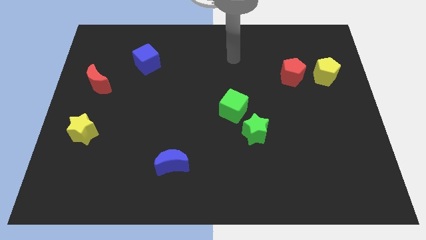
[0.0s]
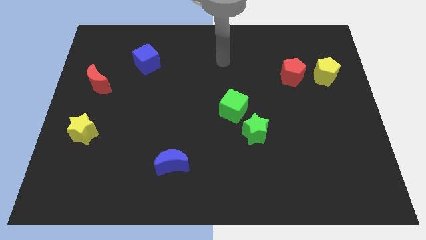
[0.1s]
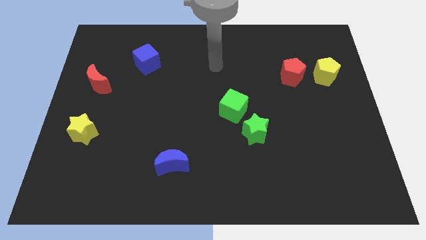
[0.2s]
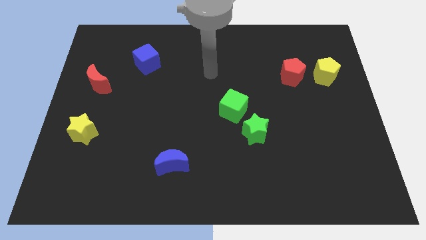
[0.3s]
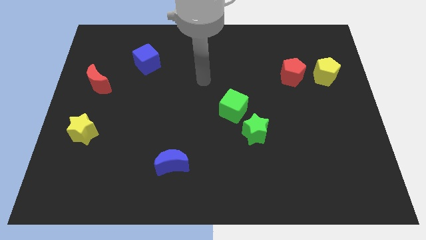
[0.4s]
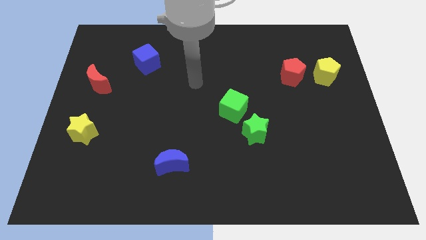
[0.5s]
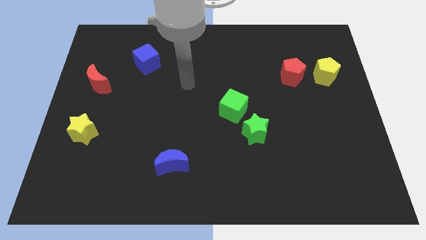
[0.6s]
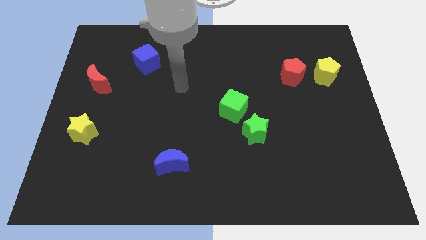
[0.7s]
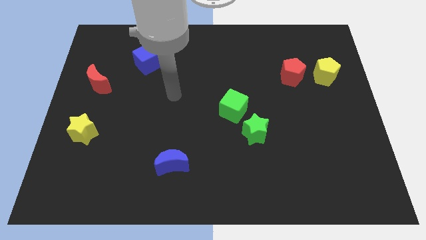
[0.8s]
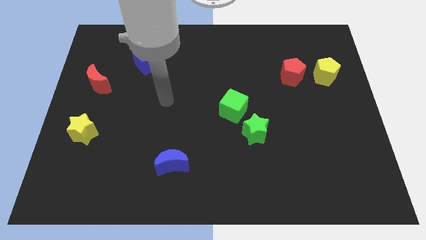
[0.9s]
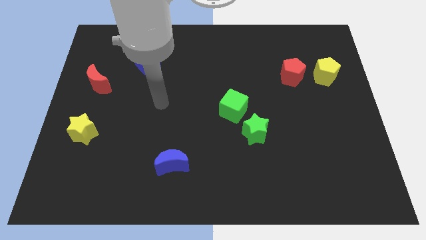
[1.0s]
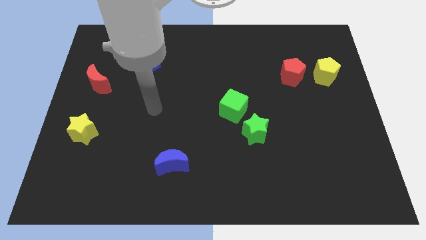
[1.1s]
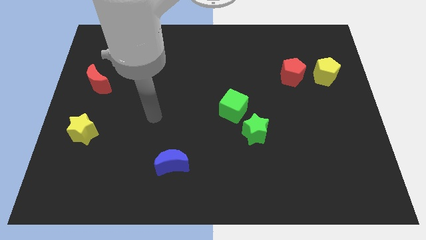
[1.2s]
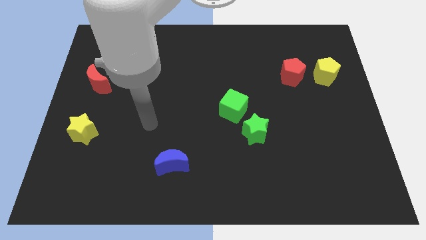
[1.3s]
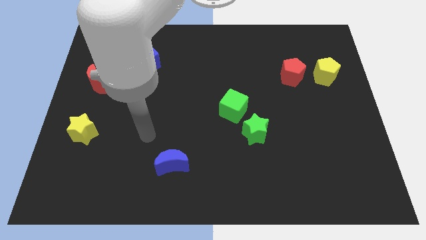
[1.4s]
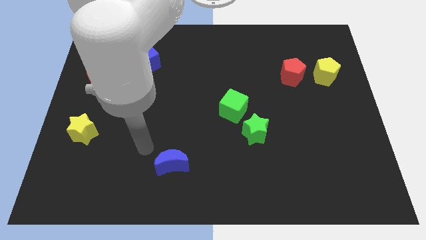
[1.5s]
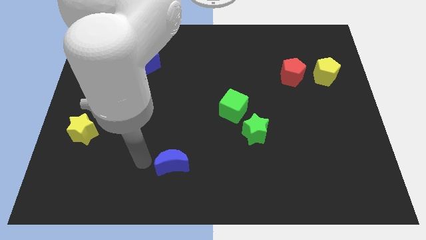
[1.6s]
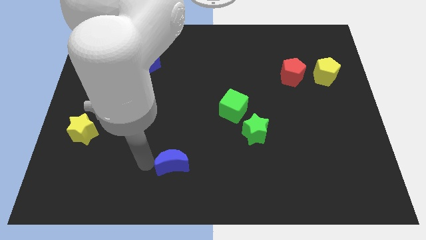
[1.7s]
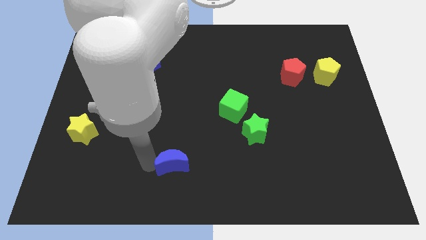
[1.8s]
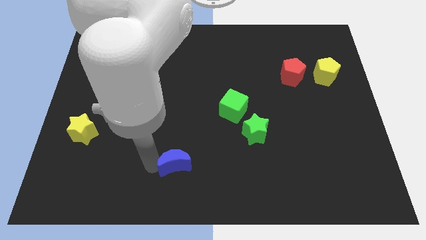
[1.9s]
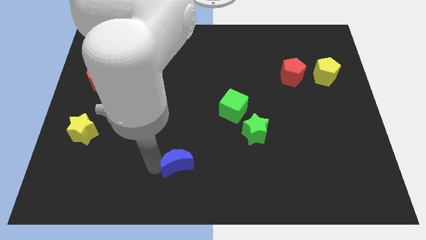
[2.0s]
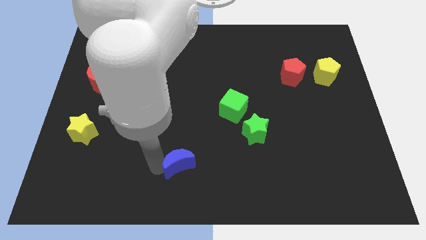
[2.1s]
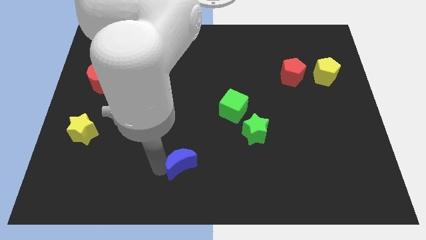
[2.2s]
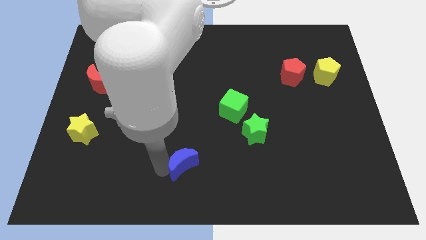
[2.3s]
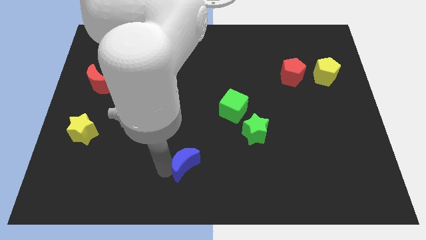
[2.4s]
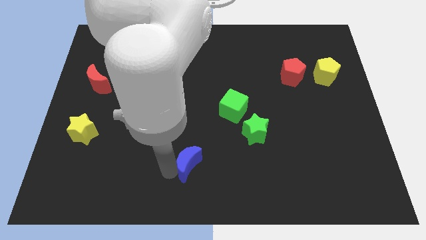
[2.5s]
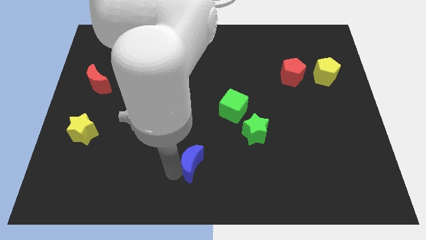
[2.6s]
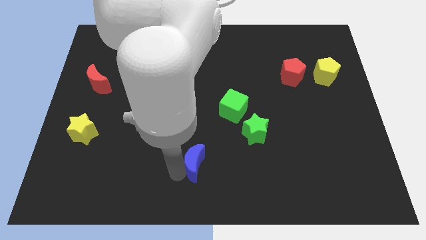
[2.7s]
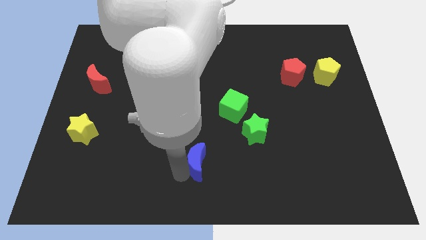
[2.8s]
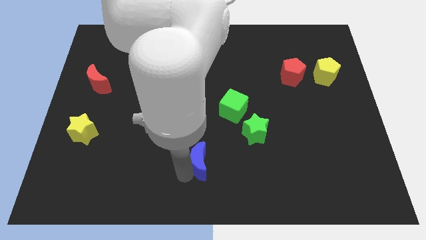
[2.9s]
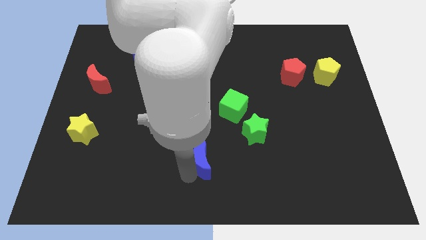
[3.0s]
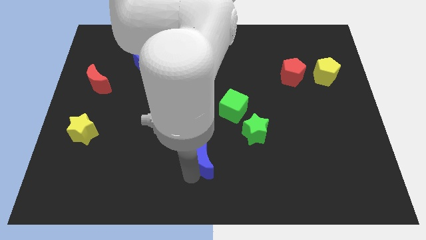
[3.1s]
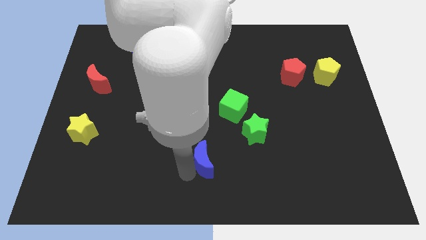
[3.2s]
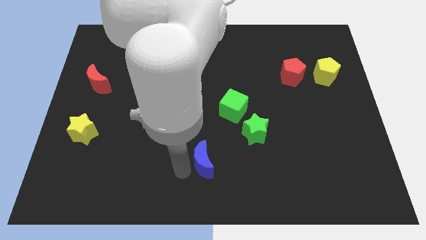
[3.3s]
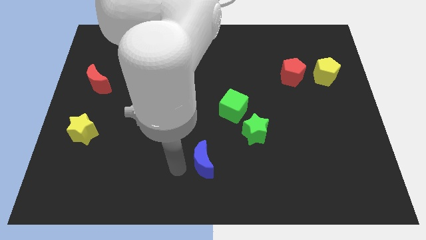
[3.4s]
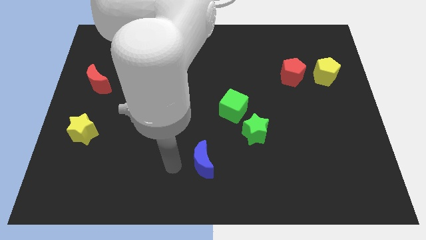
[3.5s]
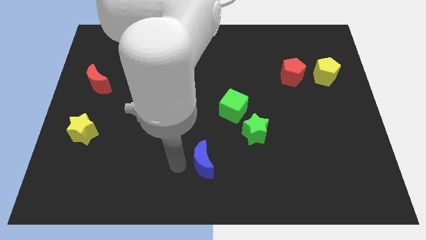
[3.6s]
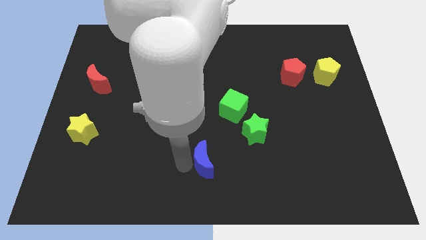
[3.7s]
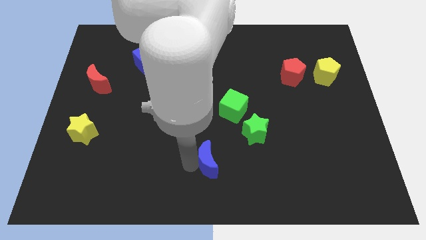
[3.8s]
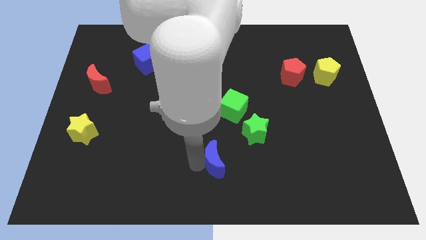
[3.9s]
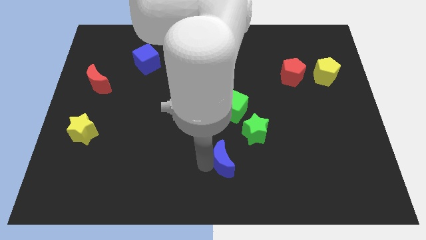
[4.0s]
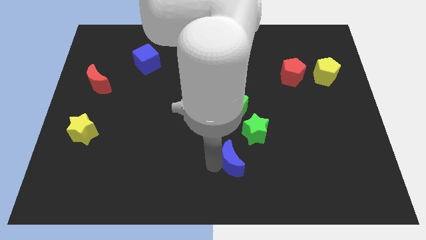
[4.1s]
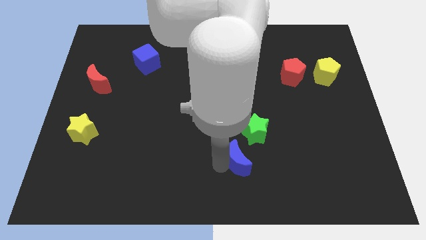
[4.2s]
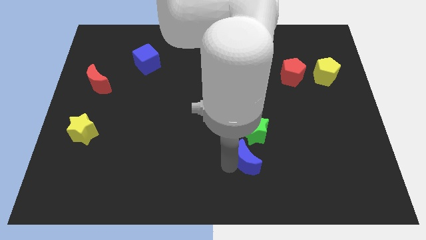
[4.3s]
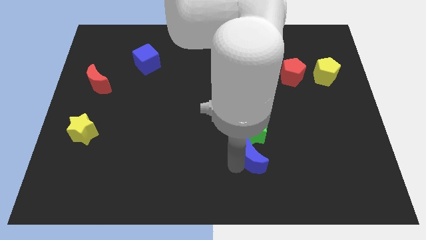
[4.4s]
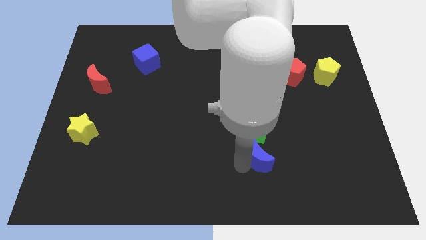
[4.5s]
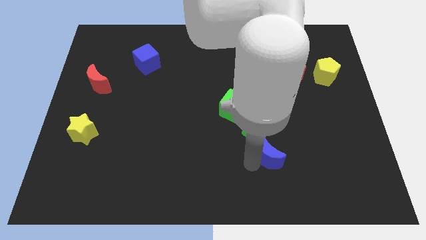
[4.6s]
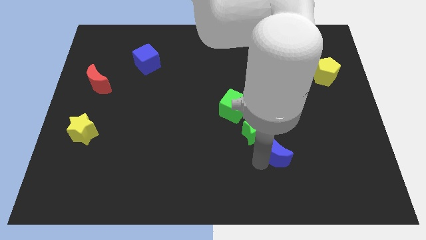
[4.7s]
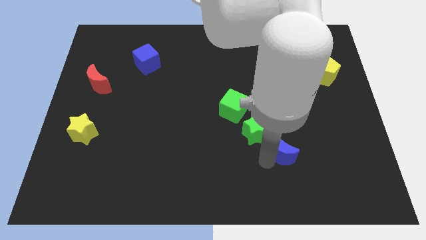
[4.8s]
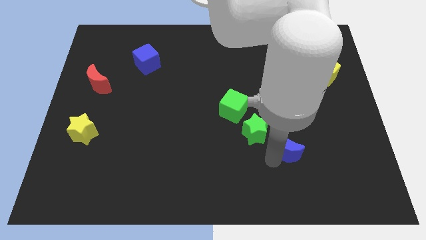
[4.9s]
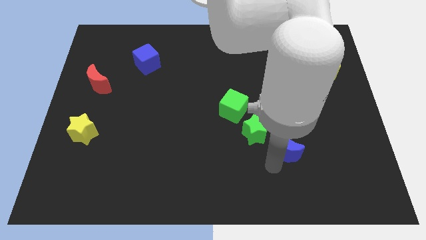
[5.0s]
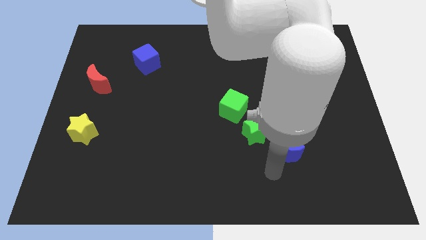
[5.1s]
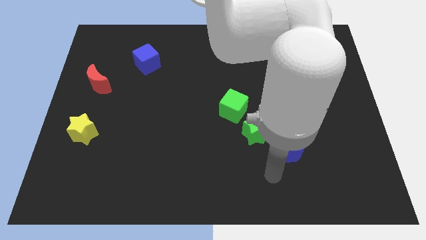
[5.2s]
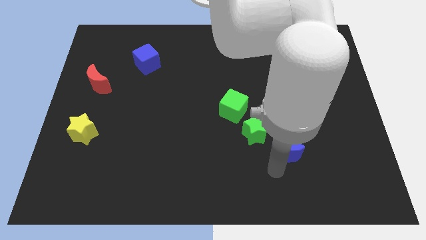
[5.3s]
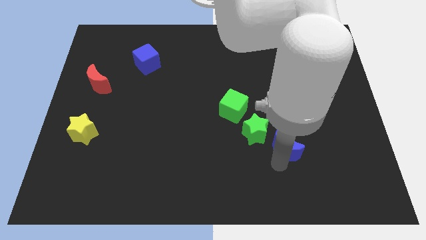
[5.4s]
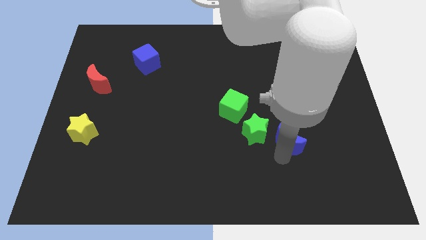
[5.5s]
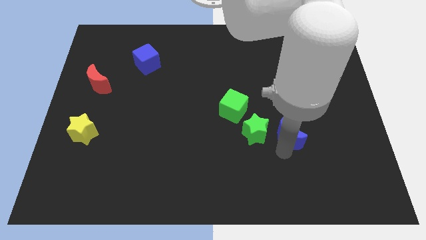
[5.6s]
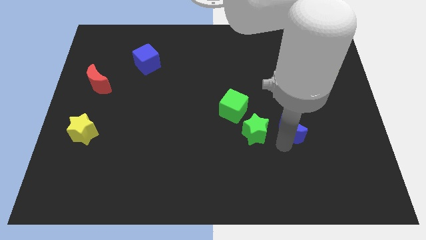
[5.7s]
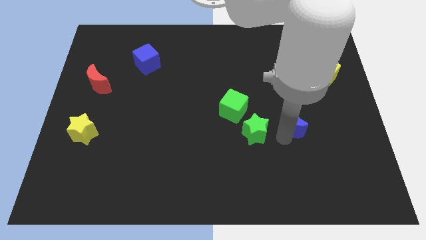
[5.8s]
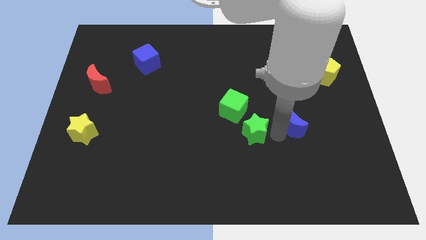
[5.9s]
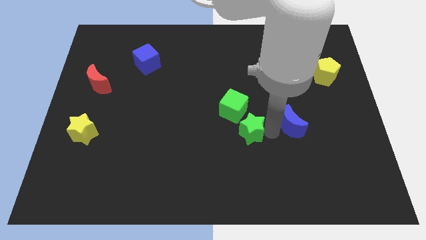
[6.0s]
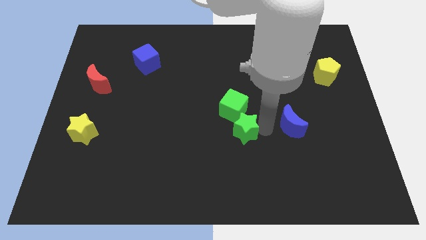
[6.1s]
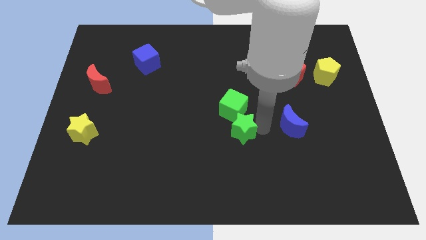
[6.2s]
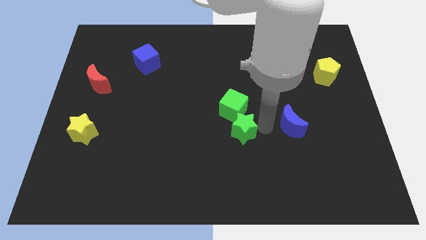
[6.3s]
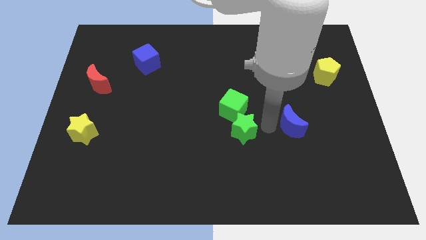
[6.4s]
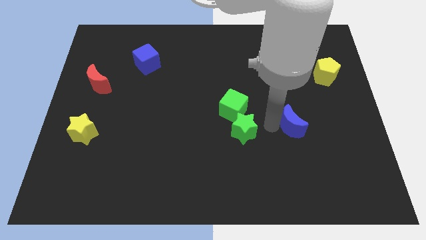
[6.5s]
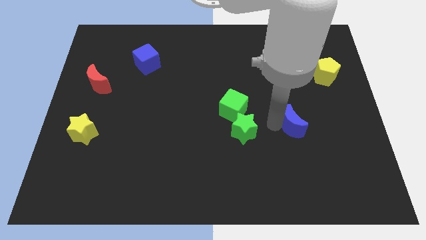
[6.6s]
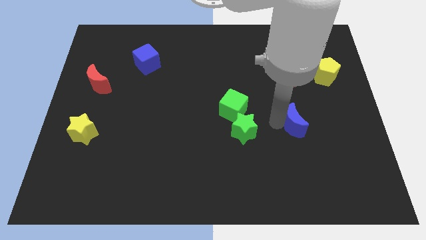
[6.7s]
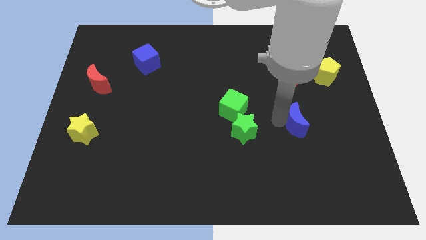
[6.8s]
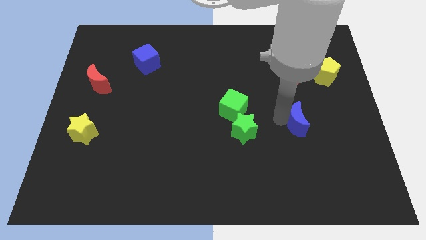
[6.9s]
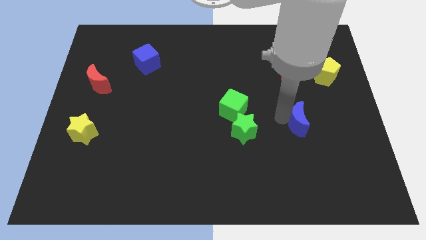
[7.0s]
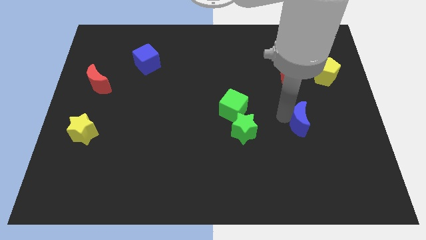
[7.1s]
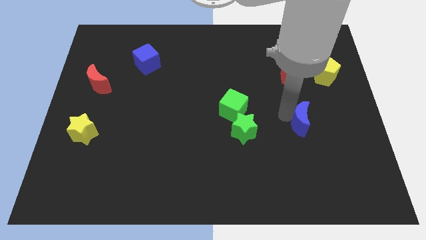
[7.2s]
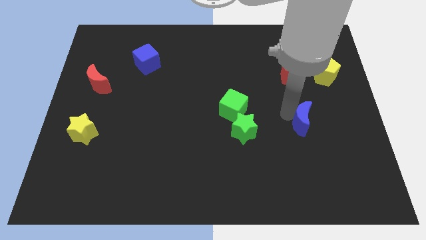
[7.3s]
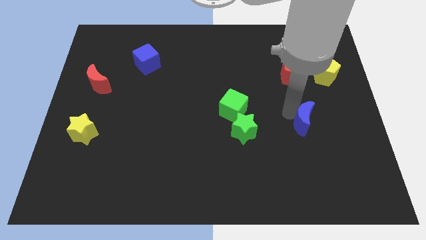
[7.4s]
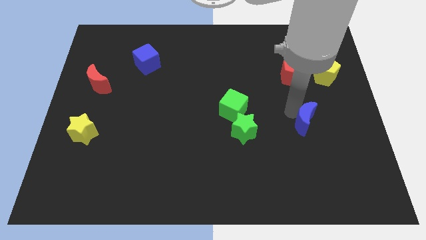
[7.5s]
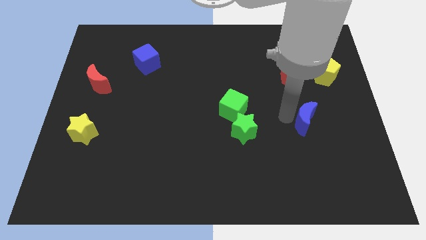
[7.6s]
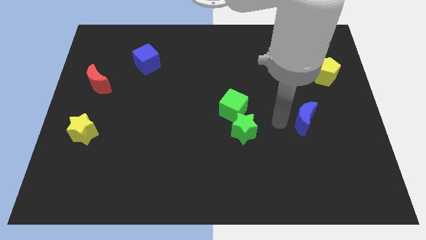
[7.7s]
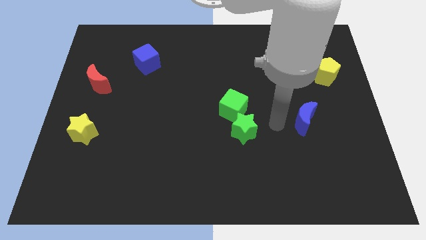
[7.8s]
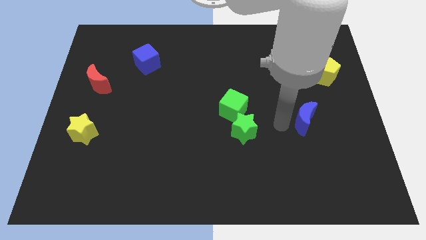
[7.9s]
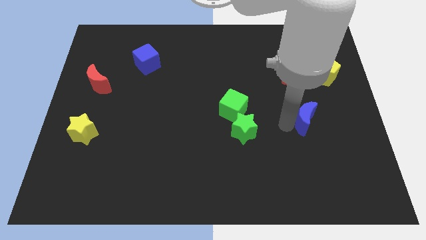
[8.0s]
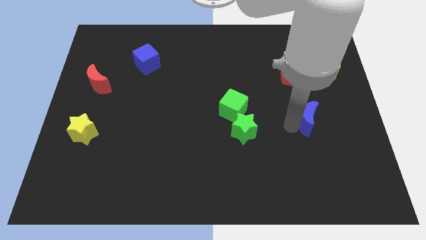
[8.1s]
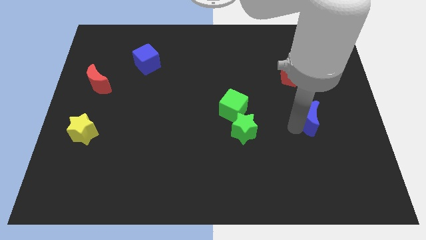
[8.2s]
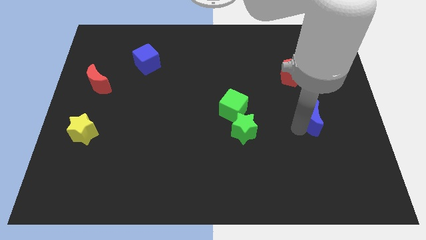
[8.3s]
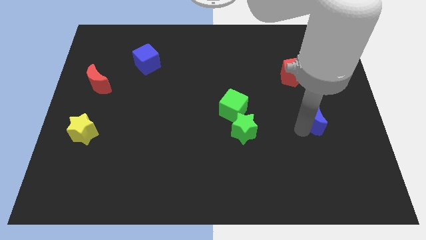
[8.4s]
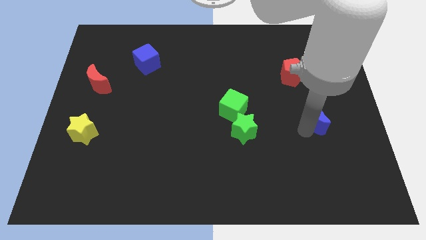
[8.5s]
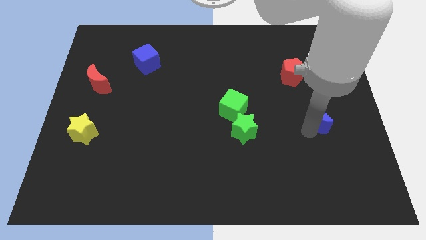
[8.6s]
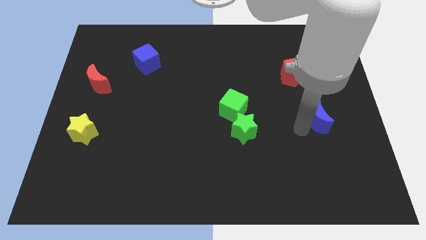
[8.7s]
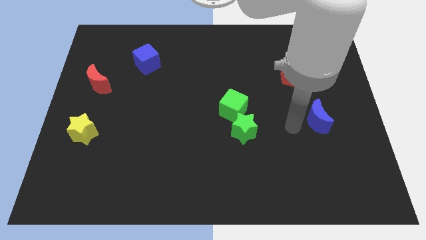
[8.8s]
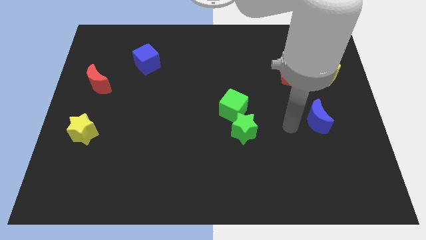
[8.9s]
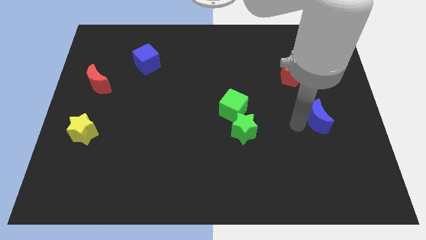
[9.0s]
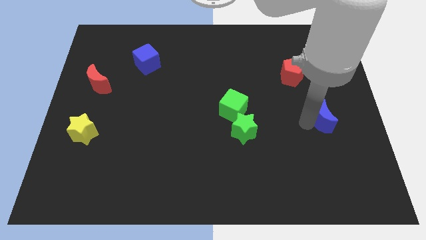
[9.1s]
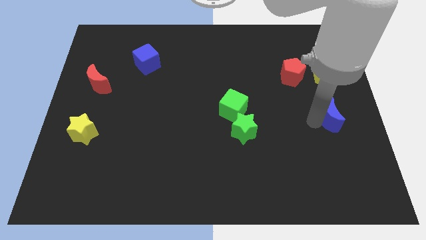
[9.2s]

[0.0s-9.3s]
move the blue moon to the right side of the board
